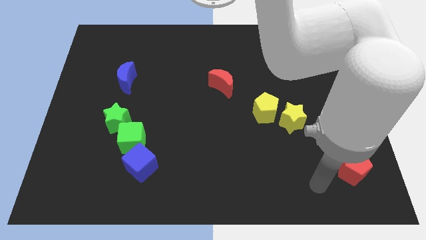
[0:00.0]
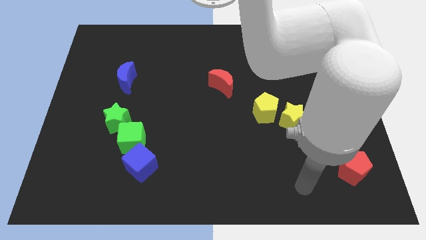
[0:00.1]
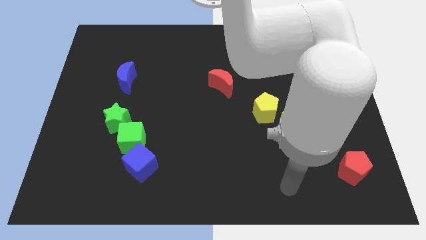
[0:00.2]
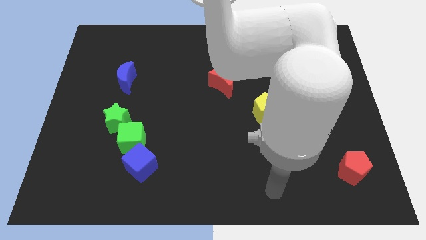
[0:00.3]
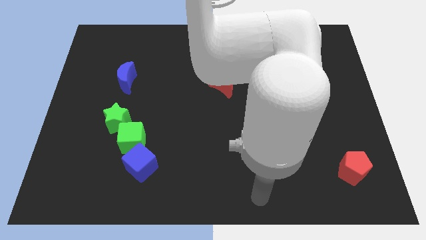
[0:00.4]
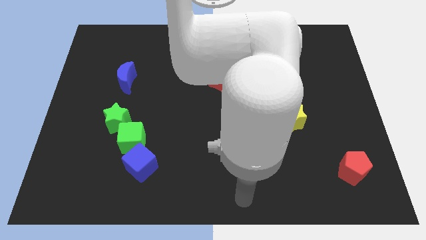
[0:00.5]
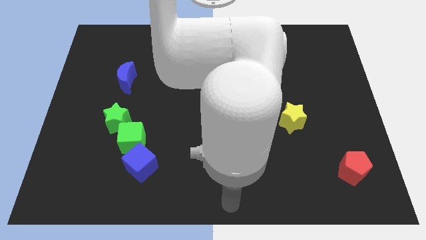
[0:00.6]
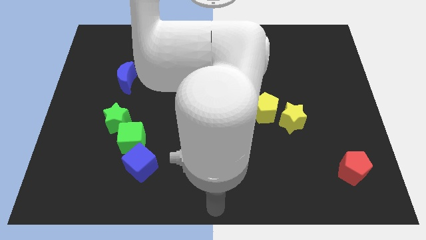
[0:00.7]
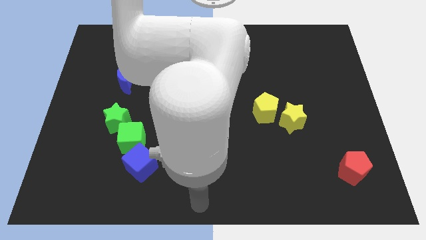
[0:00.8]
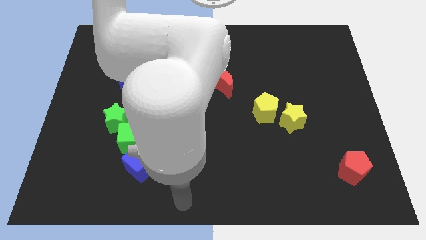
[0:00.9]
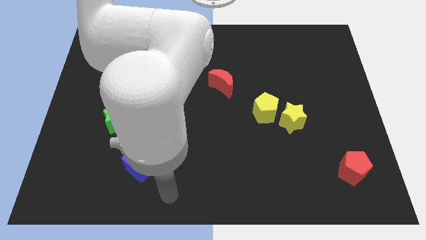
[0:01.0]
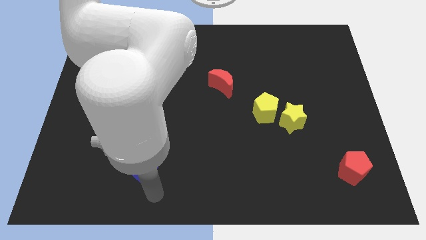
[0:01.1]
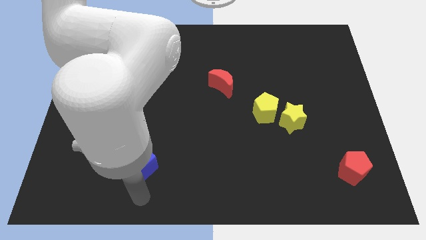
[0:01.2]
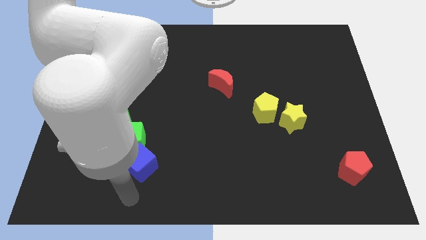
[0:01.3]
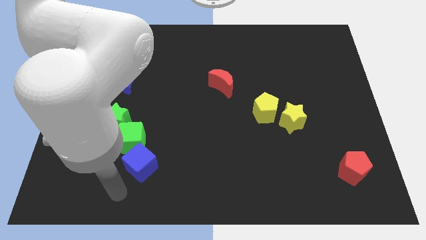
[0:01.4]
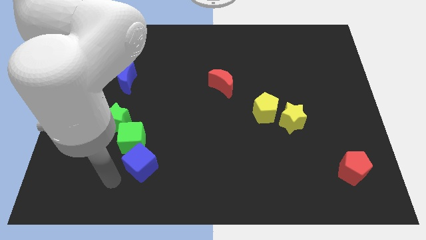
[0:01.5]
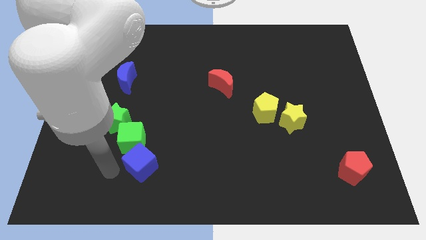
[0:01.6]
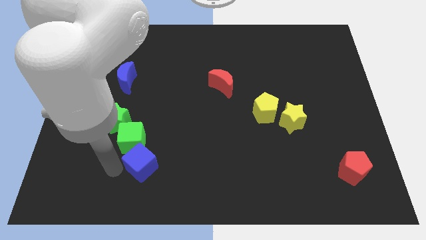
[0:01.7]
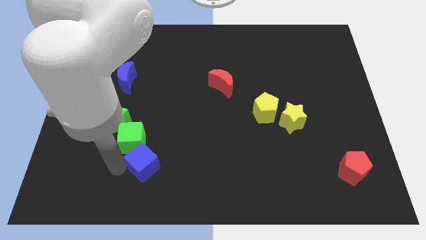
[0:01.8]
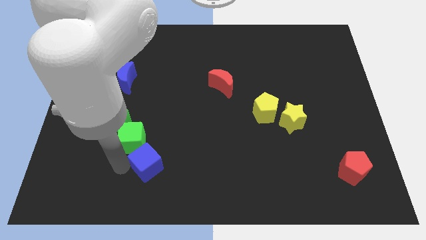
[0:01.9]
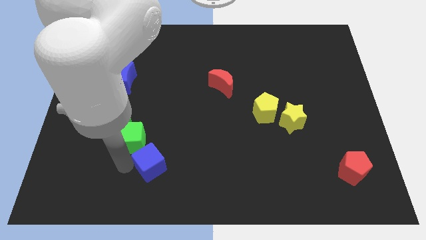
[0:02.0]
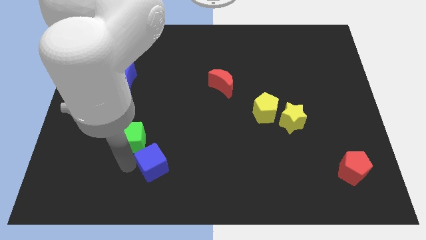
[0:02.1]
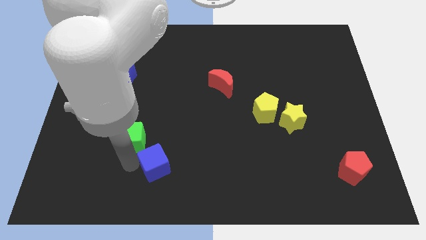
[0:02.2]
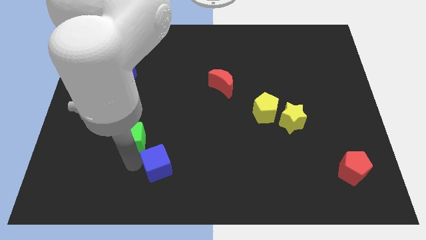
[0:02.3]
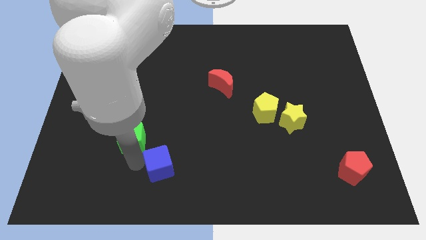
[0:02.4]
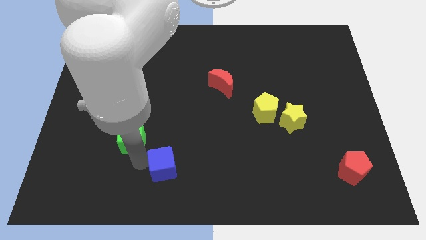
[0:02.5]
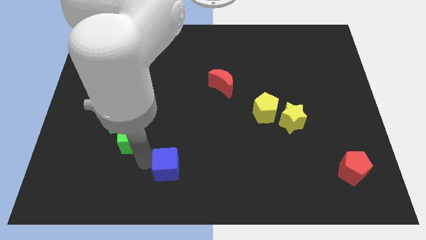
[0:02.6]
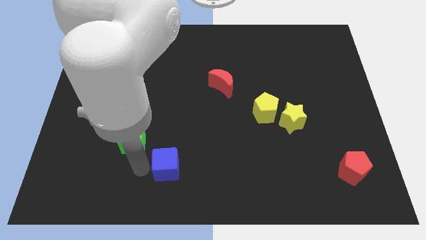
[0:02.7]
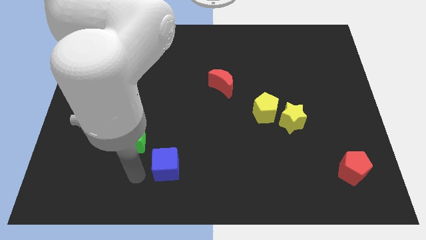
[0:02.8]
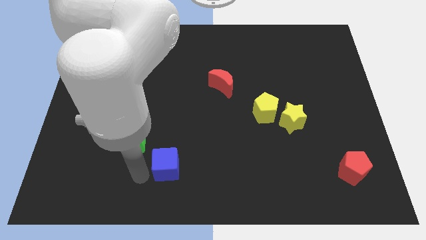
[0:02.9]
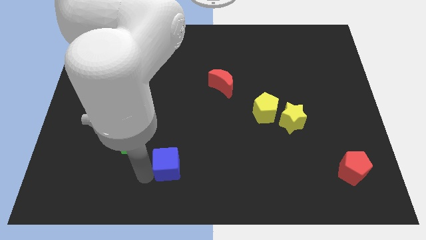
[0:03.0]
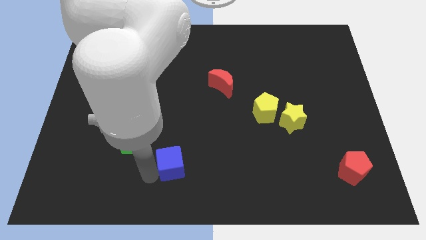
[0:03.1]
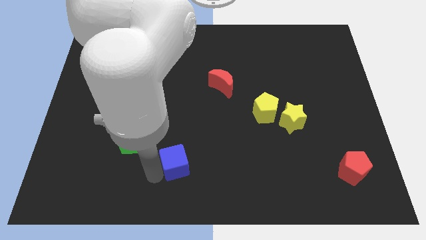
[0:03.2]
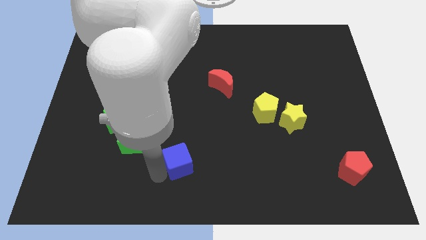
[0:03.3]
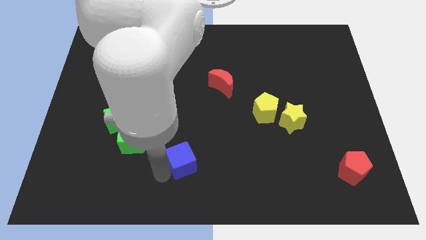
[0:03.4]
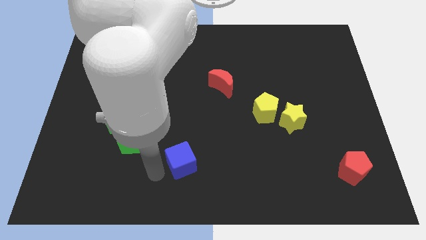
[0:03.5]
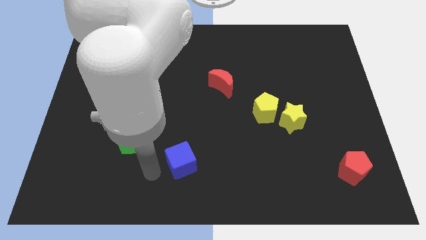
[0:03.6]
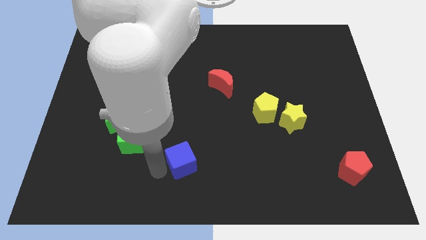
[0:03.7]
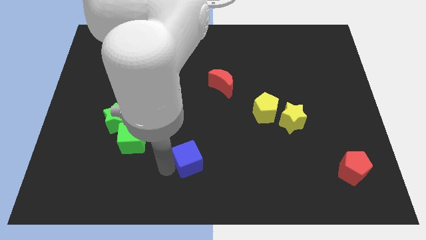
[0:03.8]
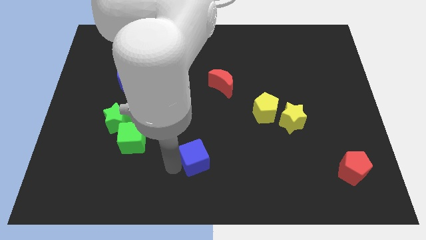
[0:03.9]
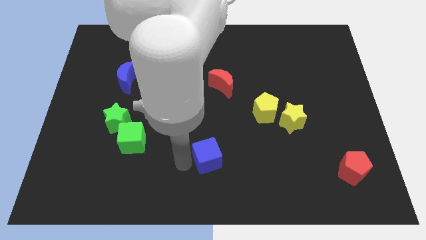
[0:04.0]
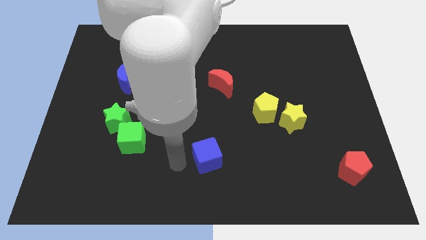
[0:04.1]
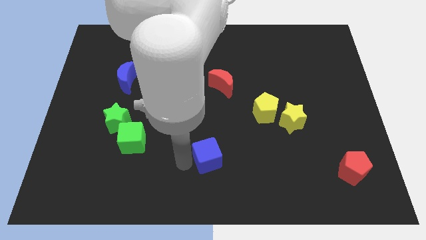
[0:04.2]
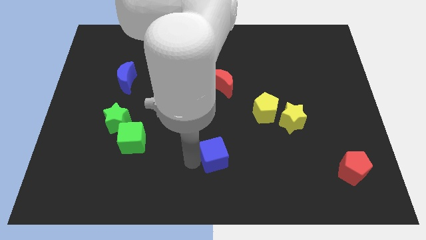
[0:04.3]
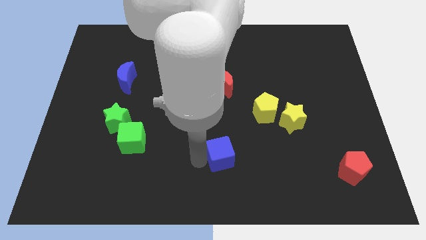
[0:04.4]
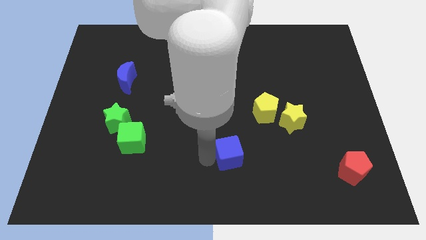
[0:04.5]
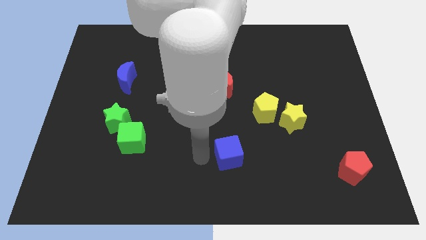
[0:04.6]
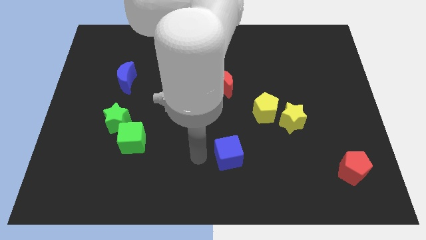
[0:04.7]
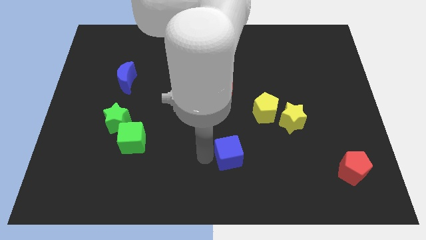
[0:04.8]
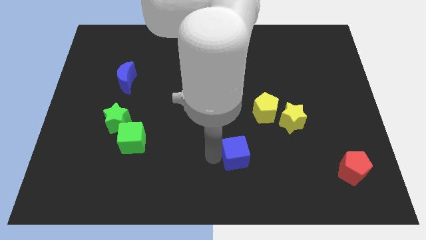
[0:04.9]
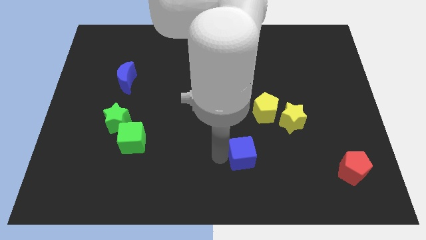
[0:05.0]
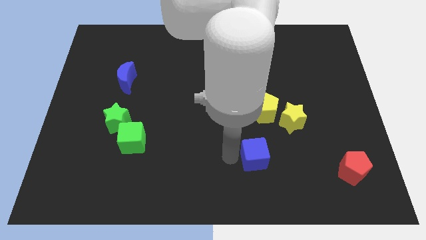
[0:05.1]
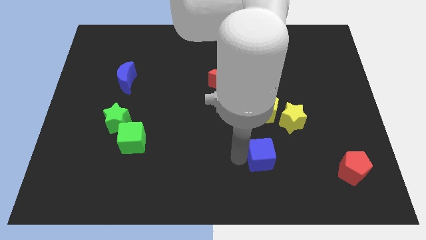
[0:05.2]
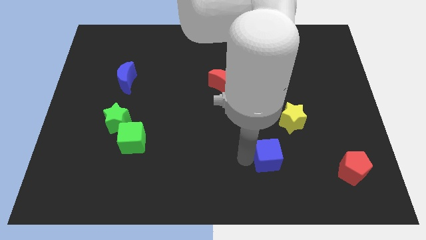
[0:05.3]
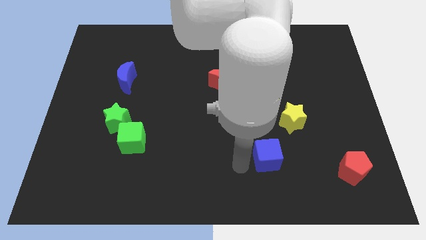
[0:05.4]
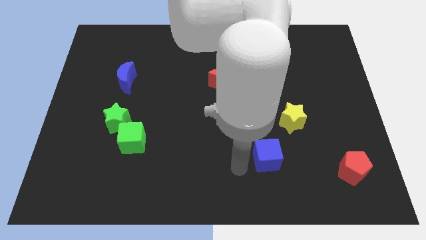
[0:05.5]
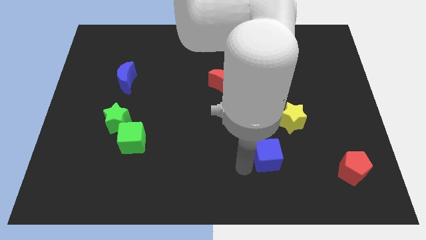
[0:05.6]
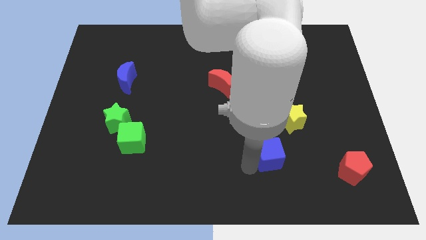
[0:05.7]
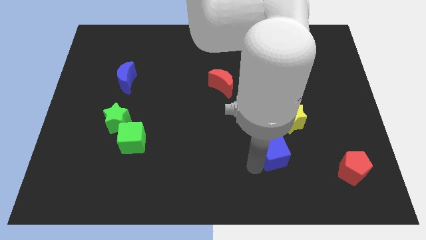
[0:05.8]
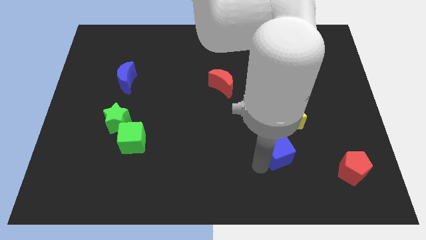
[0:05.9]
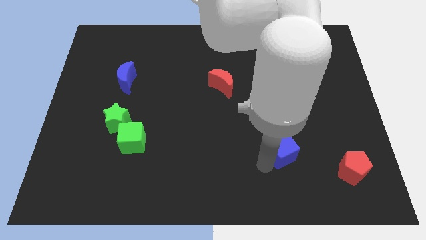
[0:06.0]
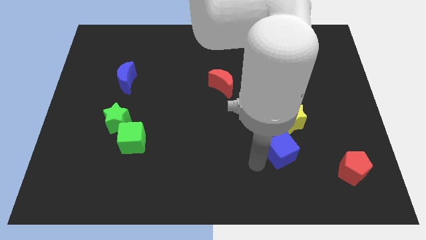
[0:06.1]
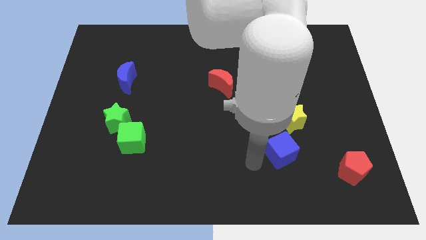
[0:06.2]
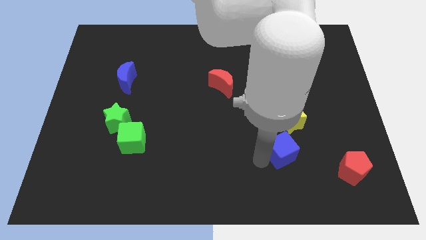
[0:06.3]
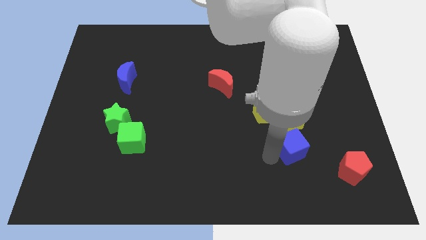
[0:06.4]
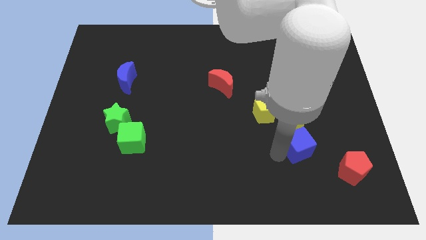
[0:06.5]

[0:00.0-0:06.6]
slide the blue cube to the bottom right of the yellow star

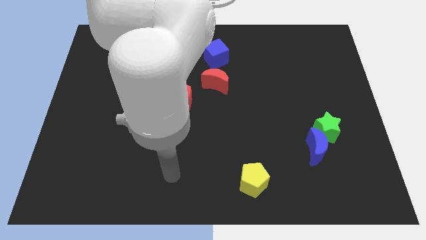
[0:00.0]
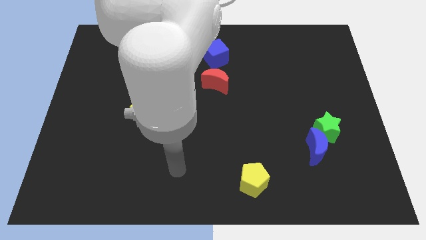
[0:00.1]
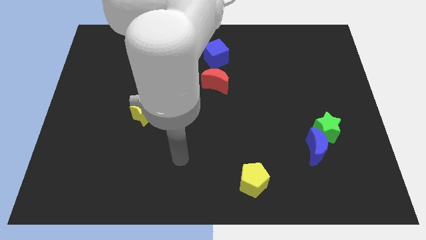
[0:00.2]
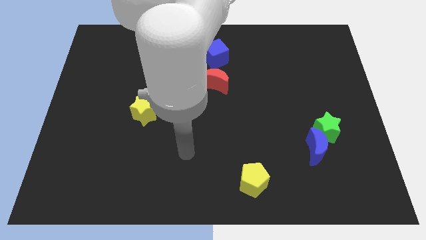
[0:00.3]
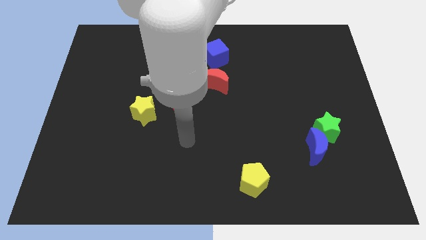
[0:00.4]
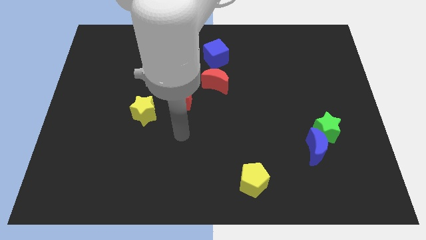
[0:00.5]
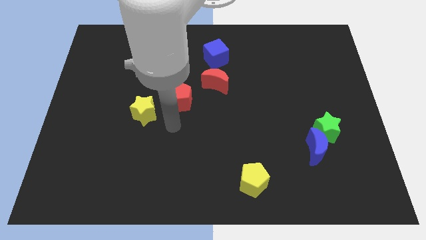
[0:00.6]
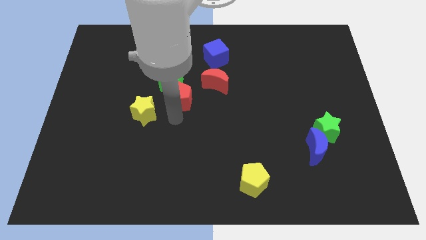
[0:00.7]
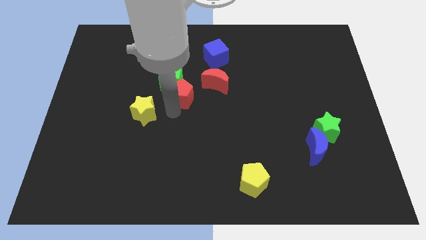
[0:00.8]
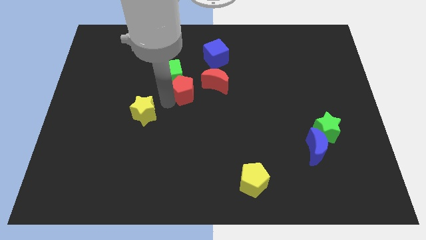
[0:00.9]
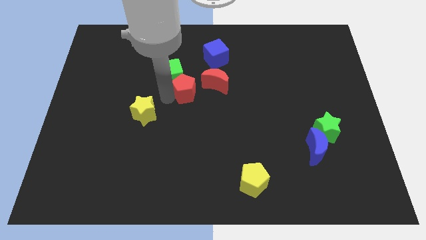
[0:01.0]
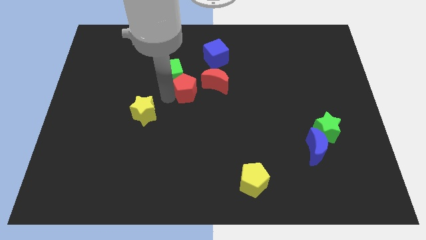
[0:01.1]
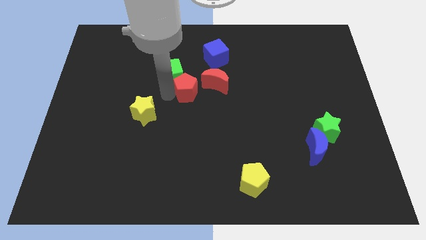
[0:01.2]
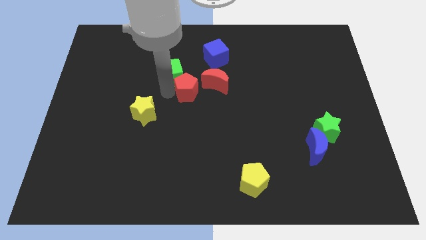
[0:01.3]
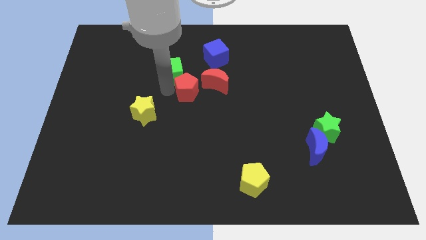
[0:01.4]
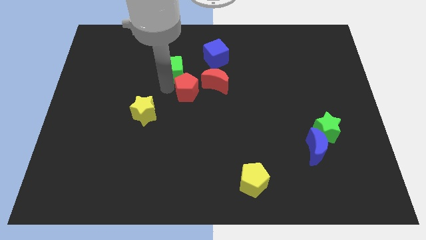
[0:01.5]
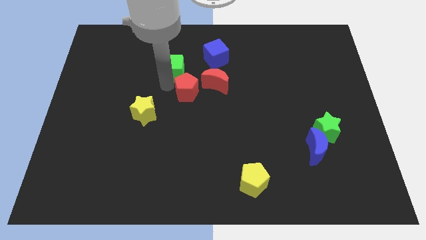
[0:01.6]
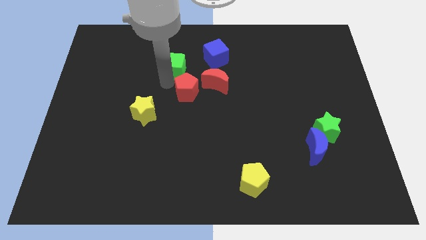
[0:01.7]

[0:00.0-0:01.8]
move the green cube left of the blue cube

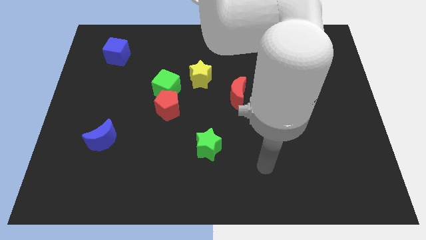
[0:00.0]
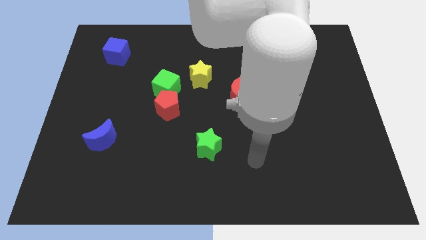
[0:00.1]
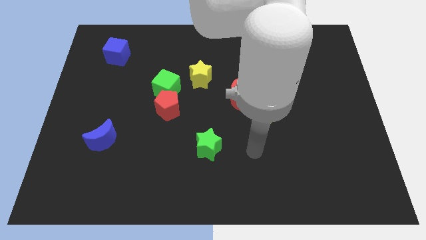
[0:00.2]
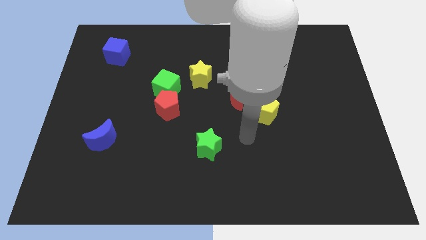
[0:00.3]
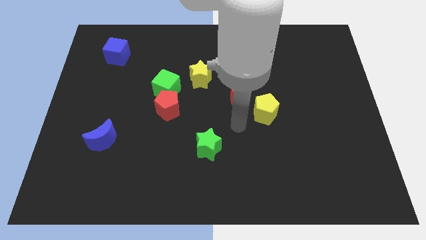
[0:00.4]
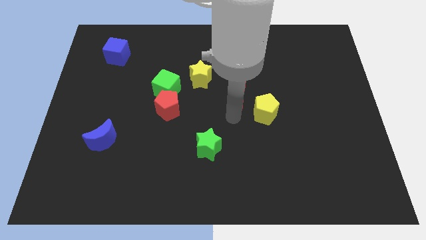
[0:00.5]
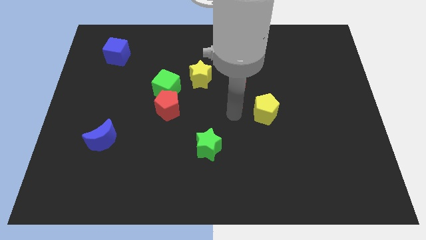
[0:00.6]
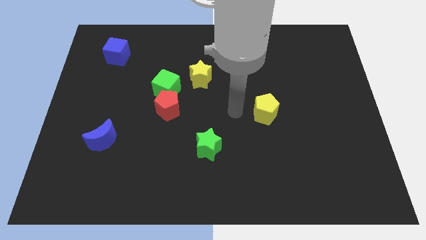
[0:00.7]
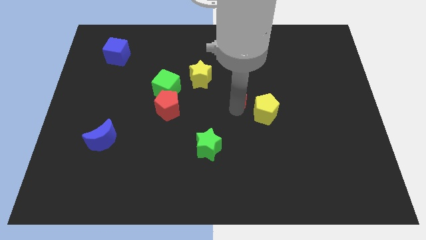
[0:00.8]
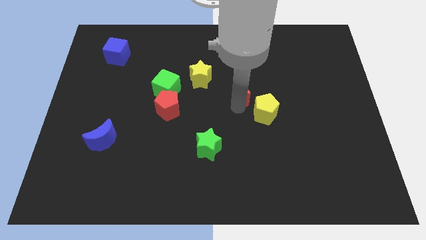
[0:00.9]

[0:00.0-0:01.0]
move the red moon to the right side of the yellow star
